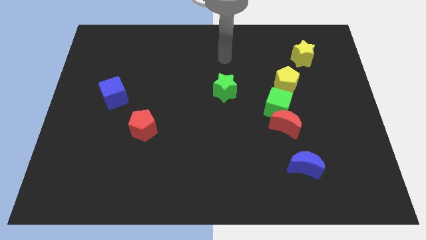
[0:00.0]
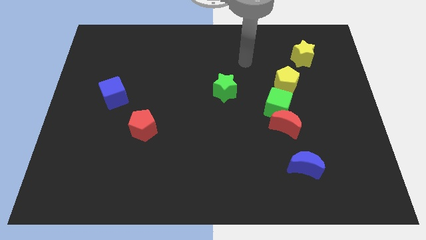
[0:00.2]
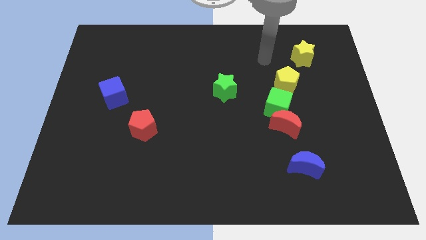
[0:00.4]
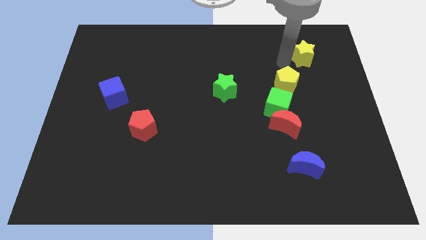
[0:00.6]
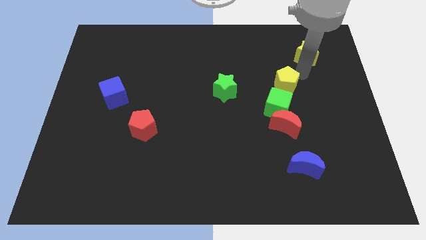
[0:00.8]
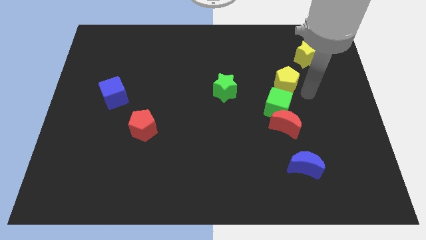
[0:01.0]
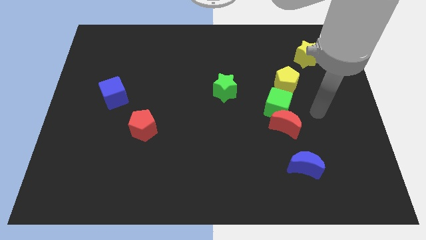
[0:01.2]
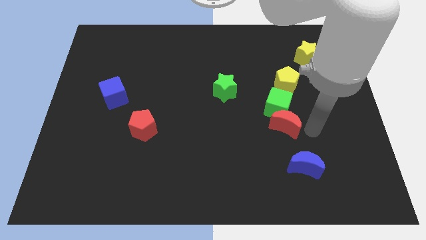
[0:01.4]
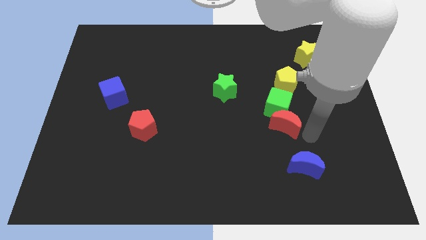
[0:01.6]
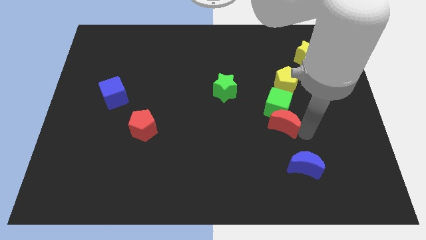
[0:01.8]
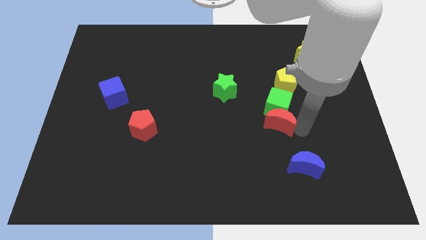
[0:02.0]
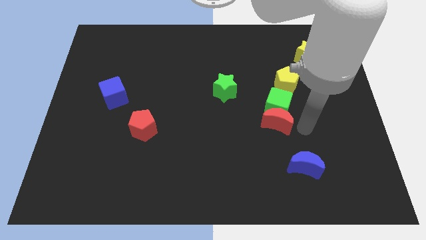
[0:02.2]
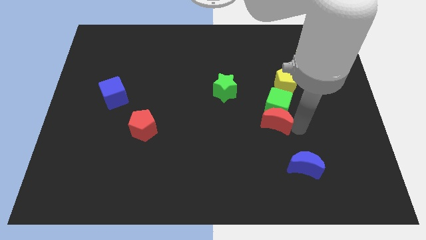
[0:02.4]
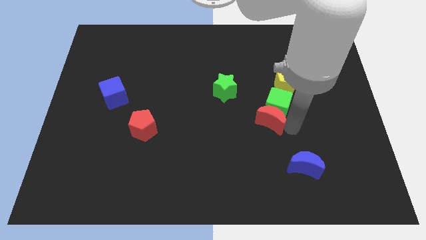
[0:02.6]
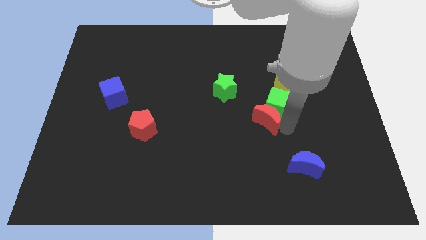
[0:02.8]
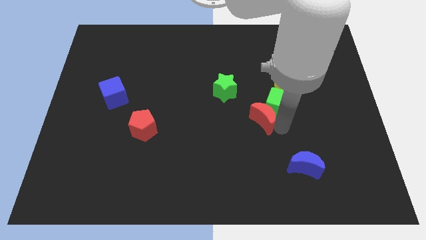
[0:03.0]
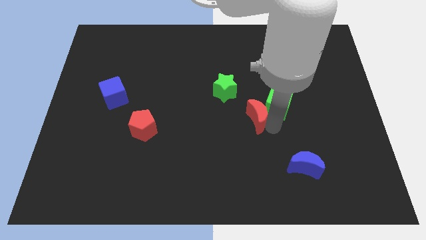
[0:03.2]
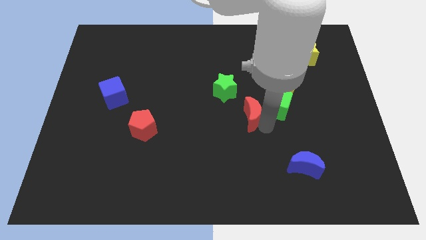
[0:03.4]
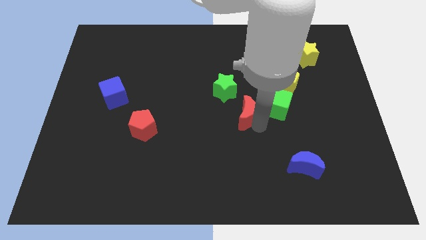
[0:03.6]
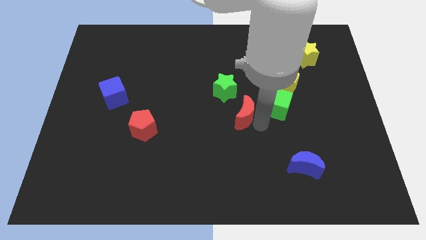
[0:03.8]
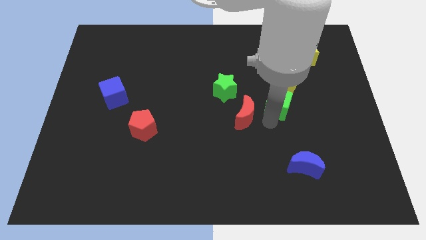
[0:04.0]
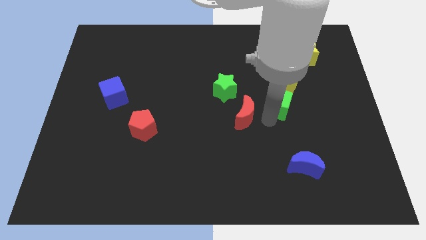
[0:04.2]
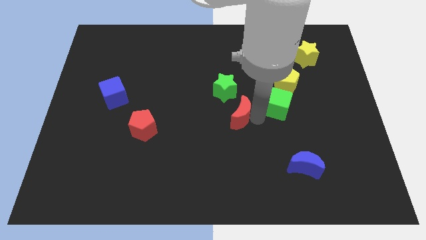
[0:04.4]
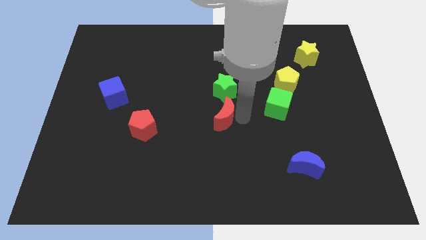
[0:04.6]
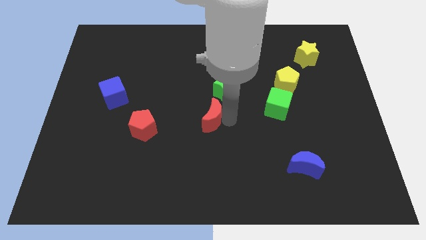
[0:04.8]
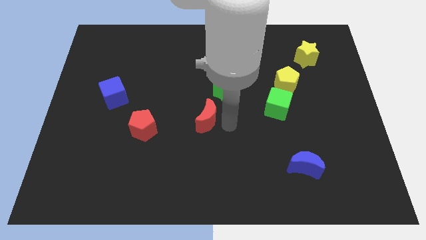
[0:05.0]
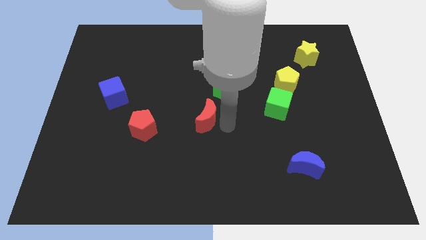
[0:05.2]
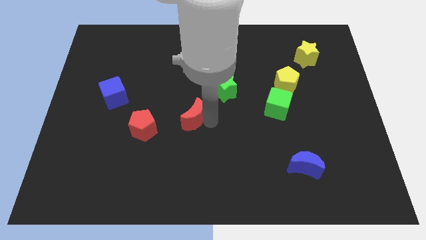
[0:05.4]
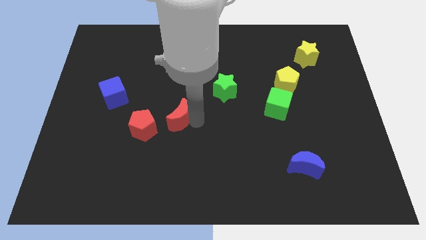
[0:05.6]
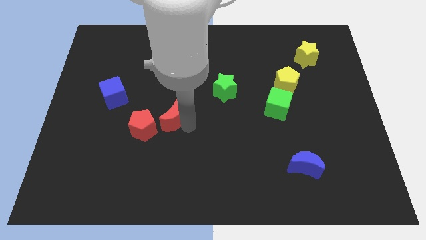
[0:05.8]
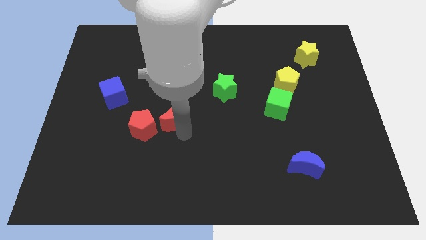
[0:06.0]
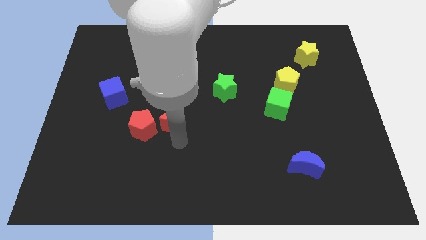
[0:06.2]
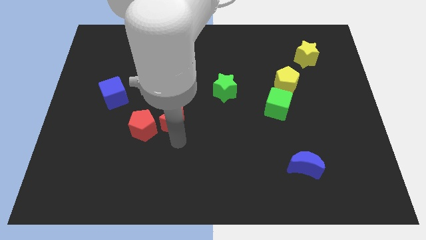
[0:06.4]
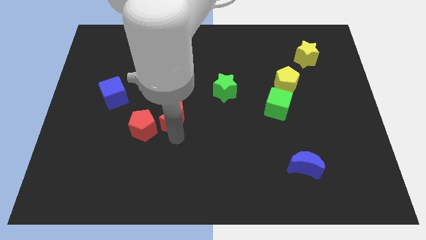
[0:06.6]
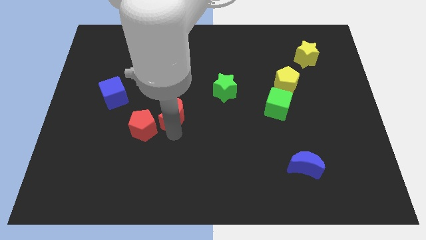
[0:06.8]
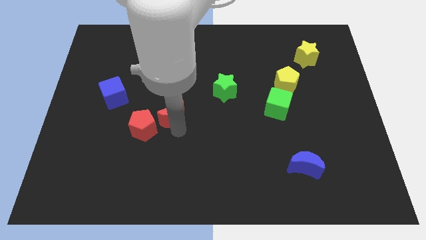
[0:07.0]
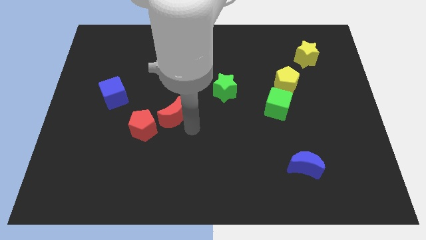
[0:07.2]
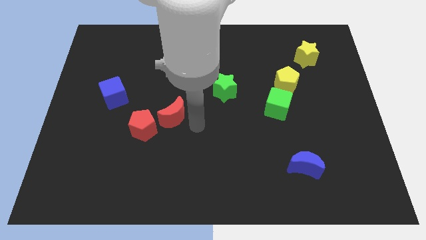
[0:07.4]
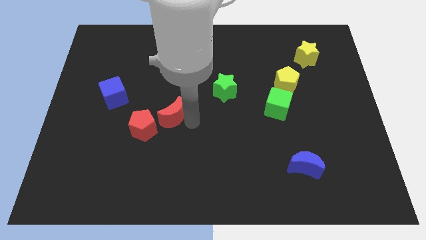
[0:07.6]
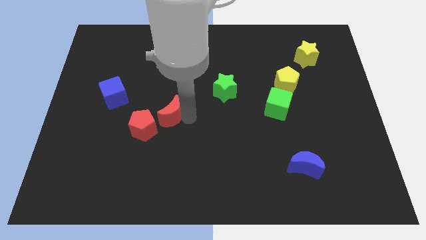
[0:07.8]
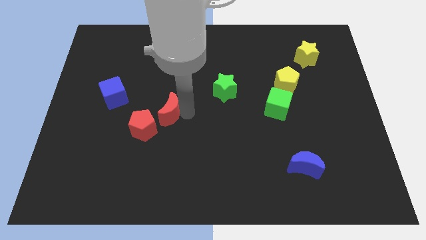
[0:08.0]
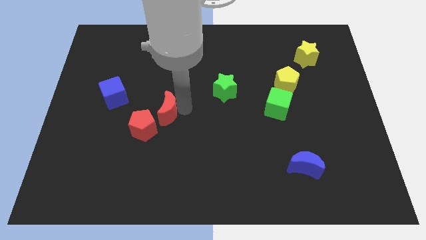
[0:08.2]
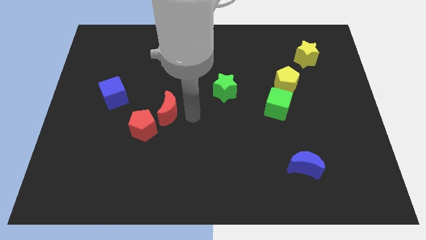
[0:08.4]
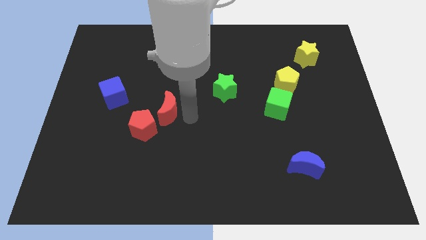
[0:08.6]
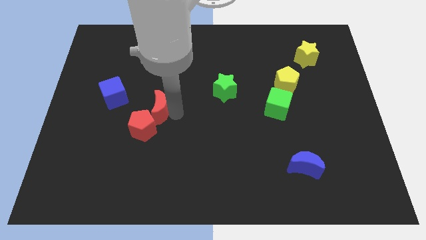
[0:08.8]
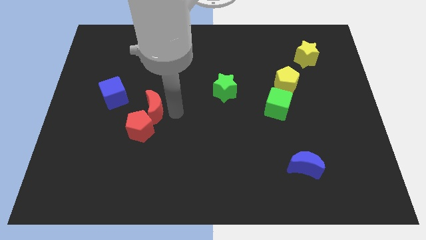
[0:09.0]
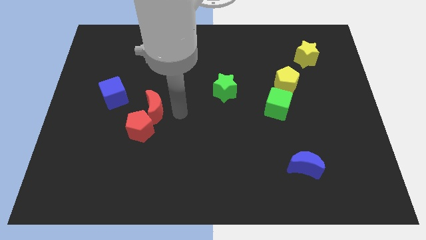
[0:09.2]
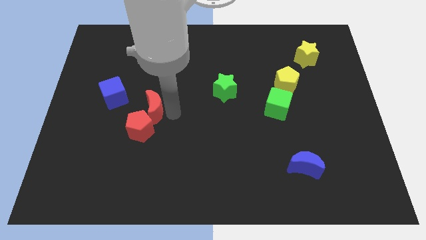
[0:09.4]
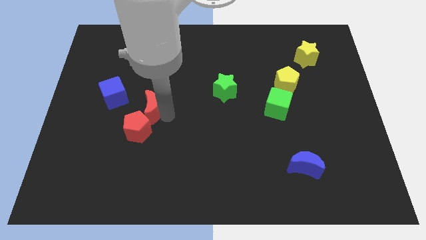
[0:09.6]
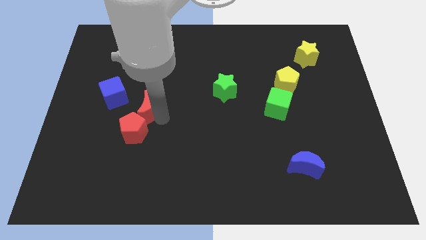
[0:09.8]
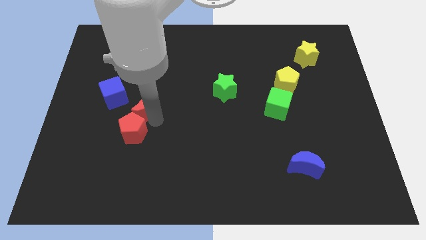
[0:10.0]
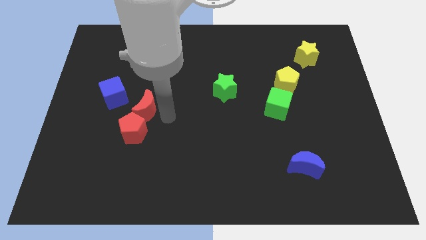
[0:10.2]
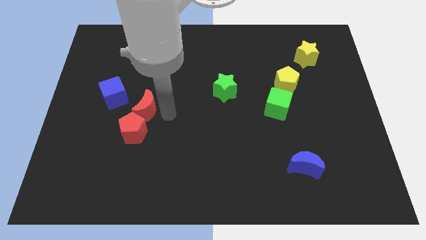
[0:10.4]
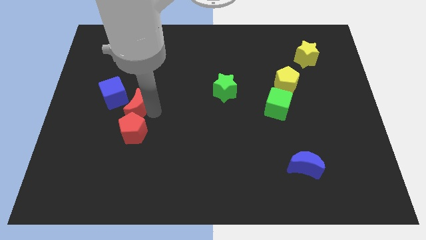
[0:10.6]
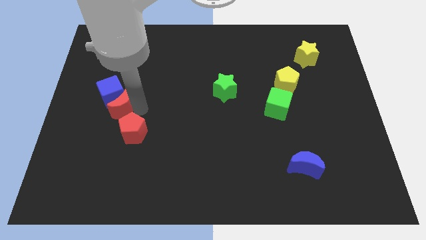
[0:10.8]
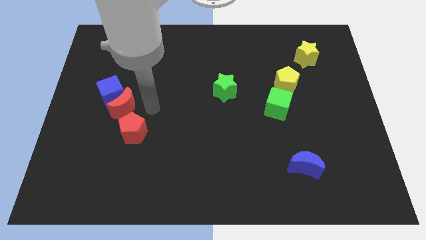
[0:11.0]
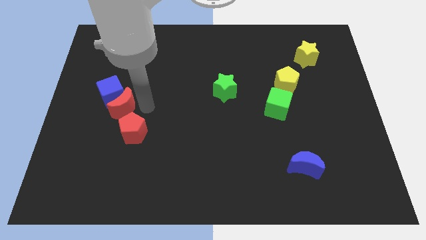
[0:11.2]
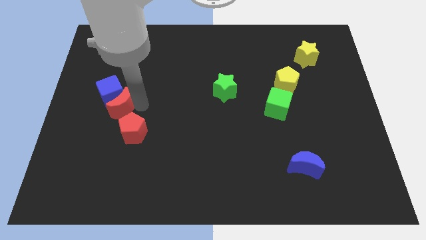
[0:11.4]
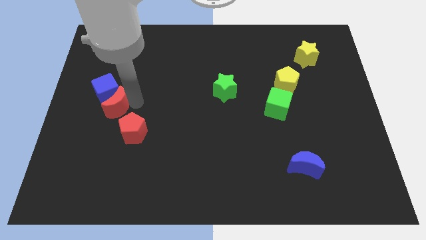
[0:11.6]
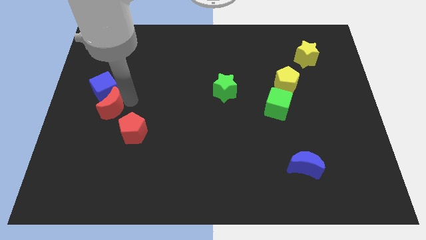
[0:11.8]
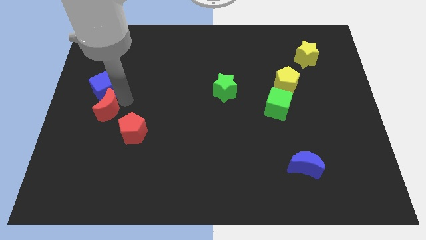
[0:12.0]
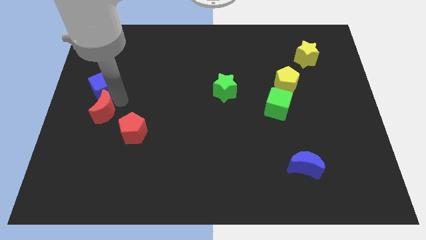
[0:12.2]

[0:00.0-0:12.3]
move the red moon to the left side of the board

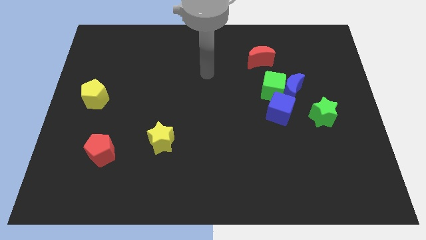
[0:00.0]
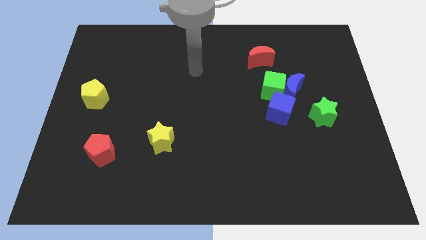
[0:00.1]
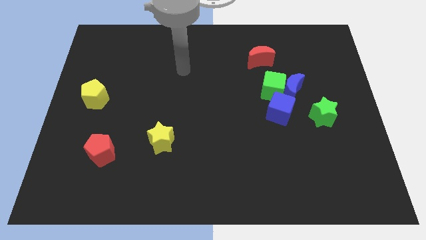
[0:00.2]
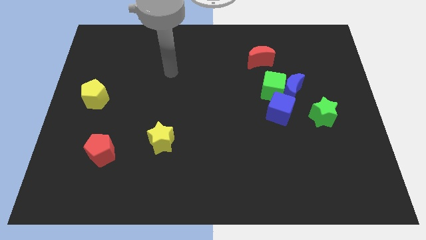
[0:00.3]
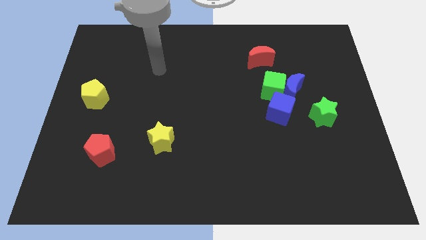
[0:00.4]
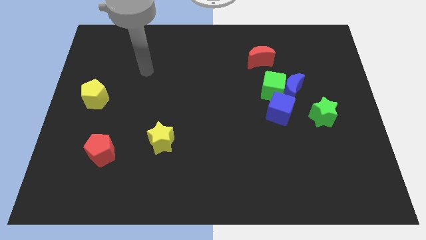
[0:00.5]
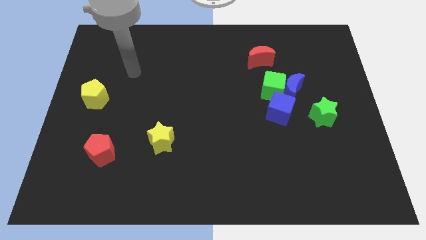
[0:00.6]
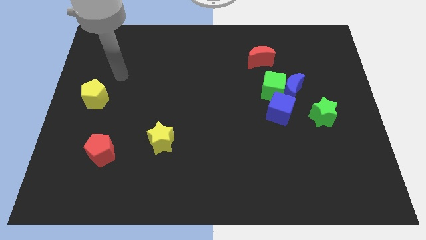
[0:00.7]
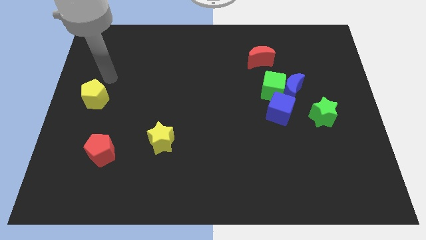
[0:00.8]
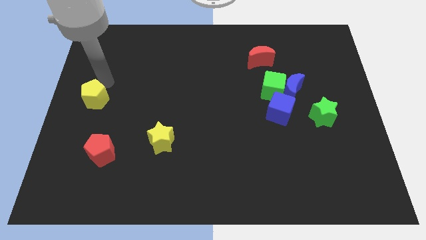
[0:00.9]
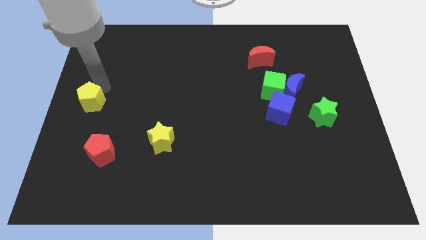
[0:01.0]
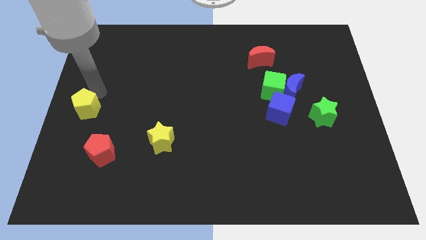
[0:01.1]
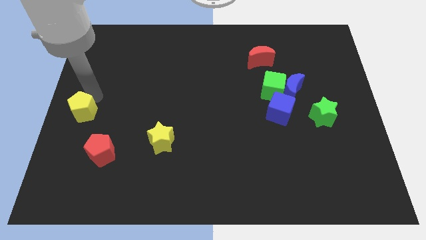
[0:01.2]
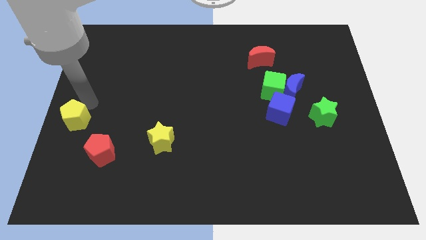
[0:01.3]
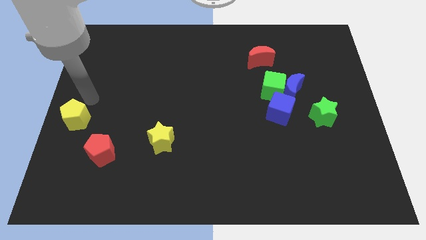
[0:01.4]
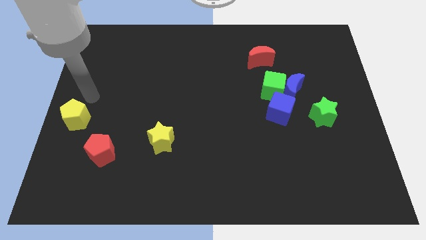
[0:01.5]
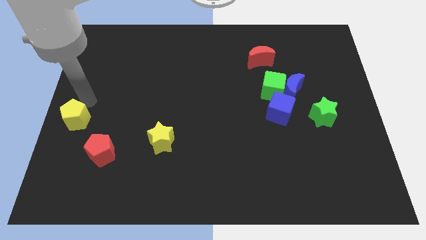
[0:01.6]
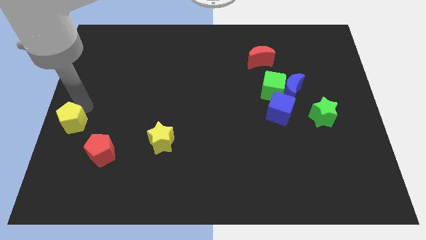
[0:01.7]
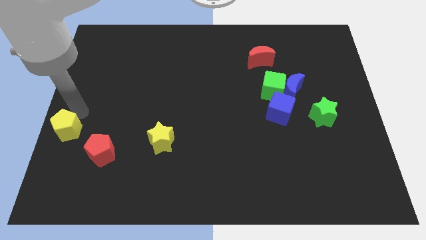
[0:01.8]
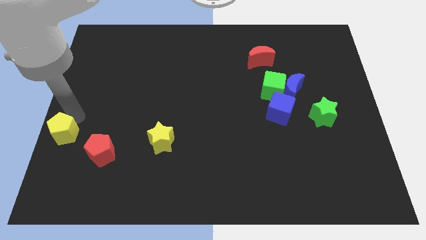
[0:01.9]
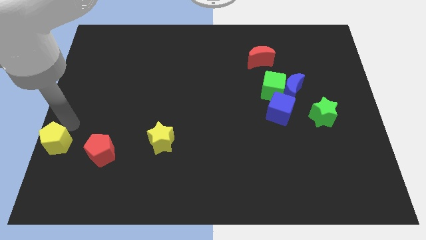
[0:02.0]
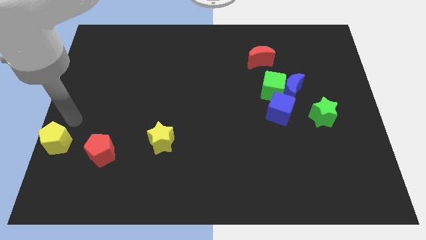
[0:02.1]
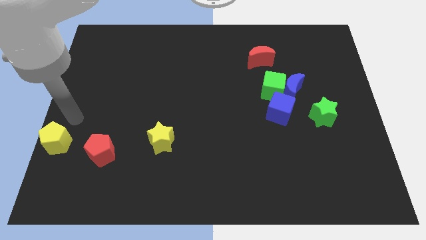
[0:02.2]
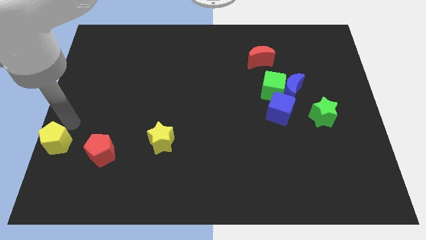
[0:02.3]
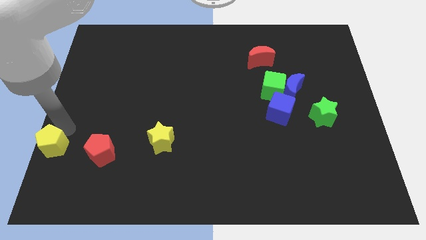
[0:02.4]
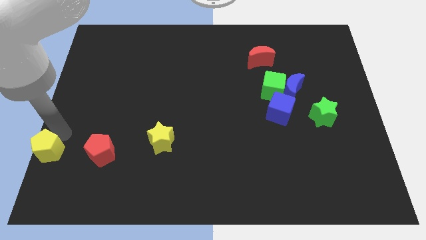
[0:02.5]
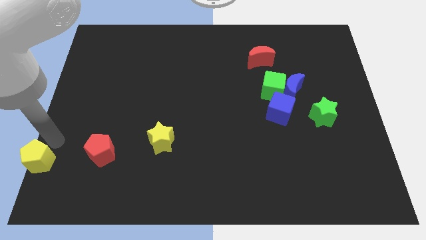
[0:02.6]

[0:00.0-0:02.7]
slide the yellow pentagon to the bottom left
